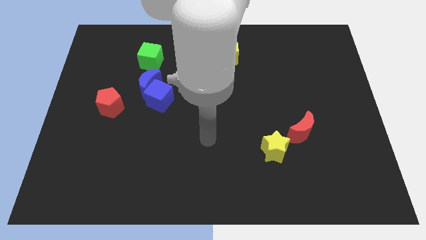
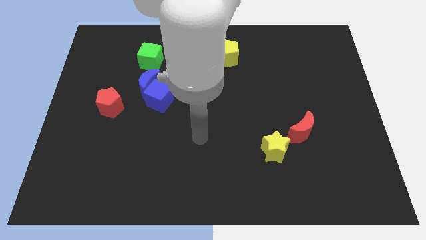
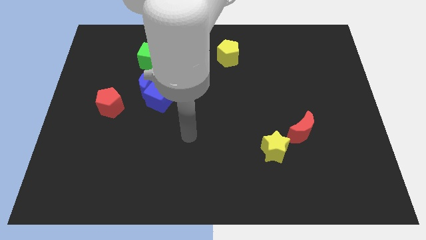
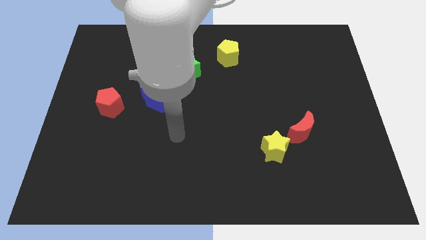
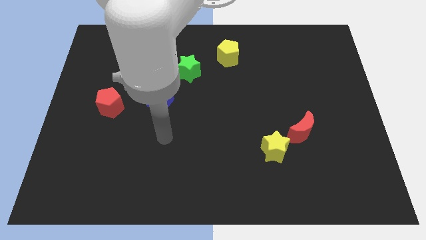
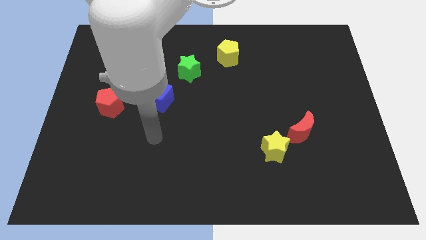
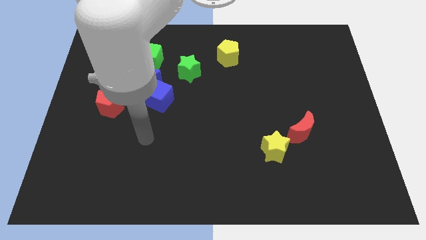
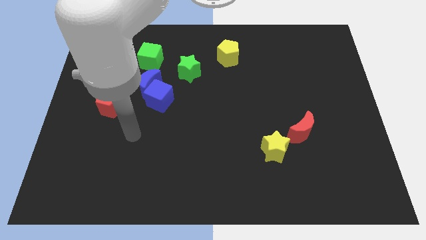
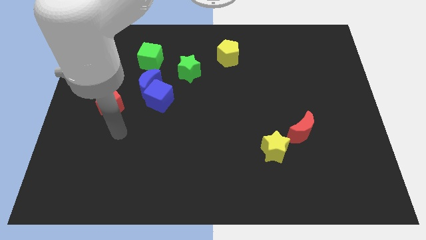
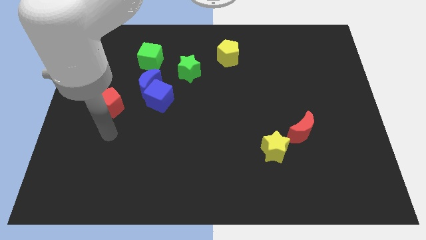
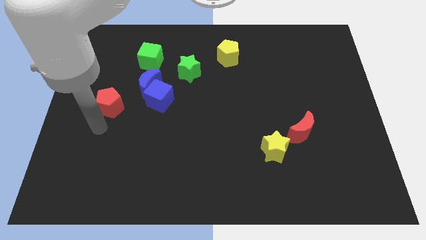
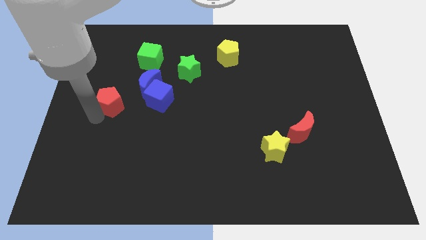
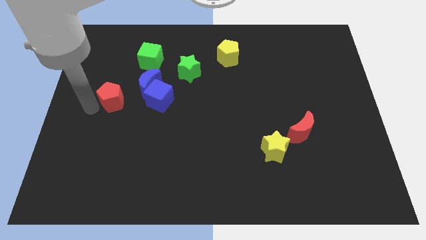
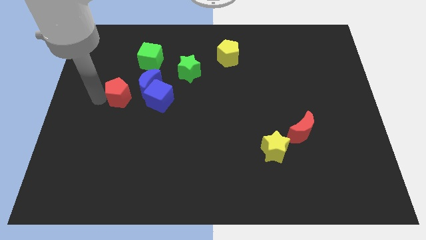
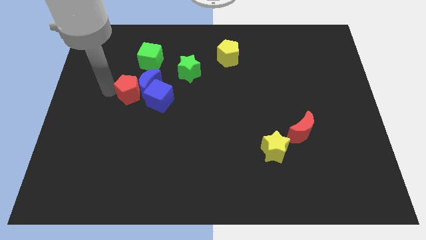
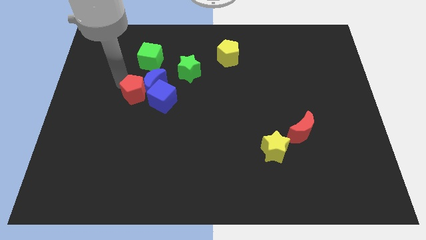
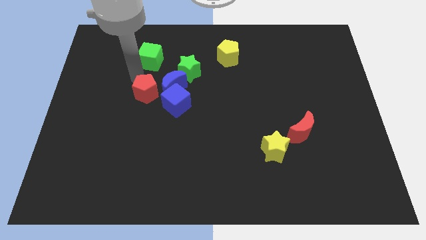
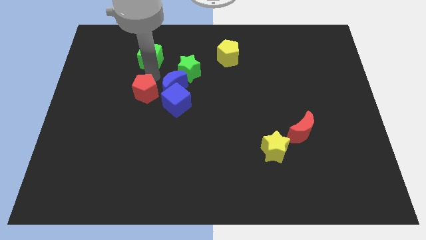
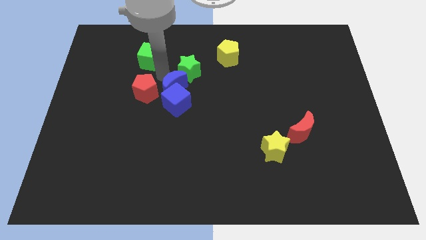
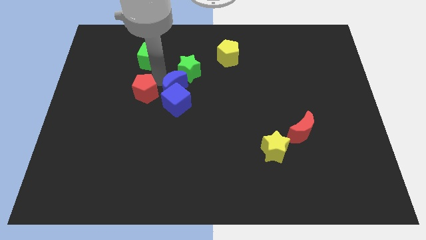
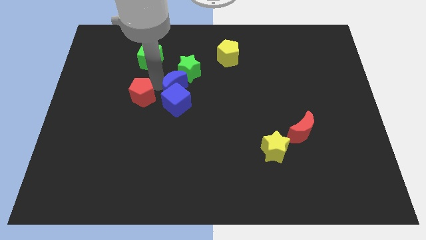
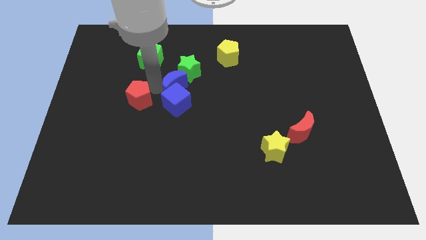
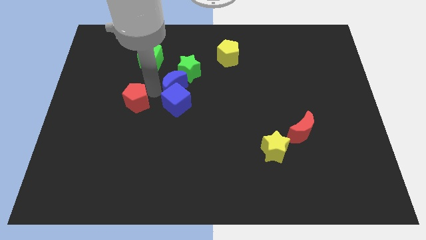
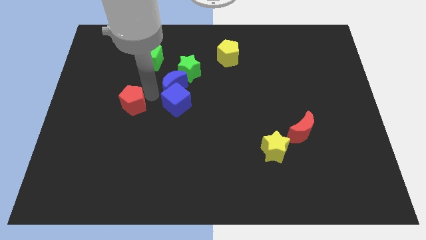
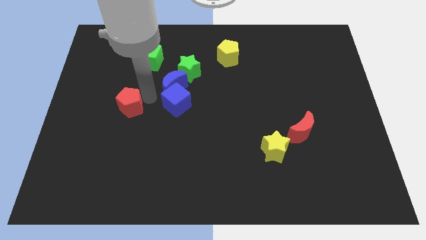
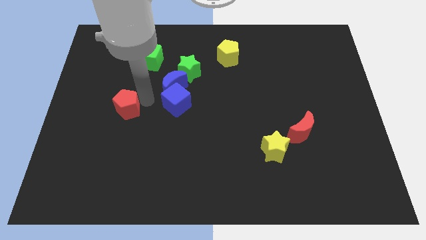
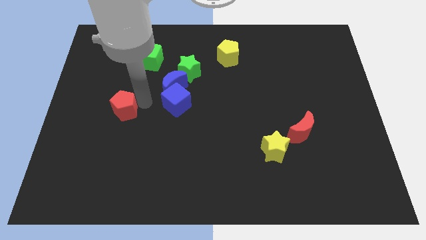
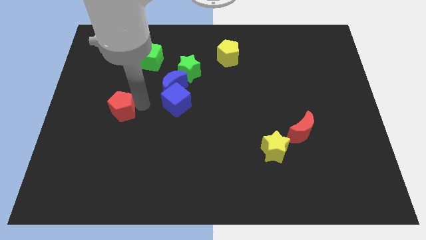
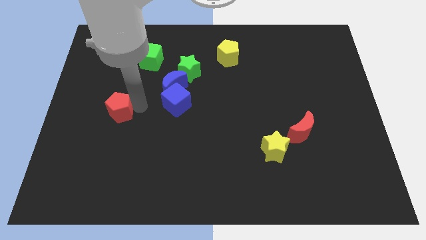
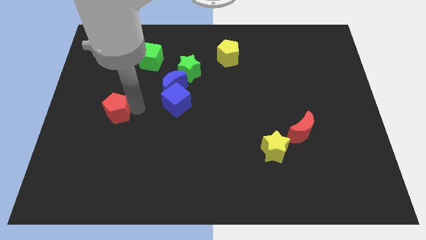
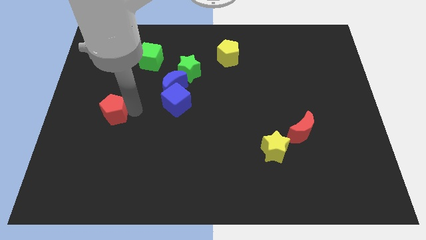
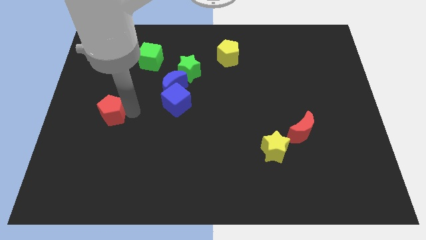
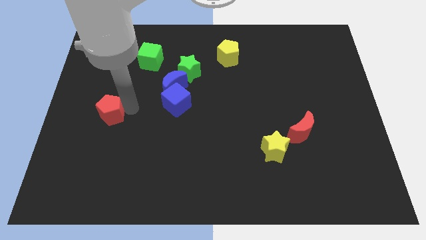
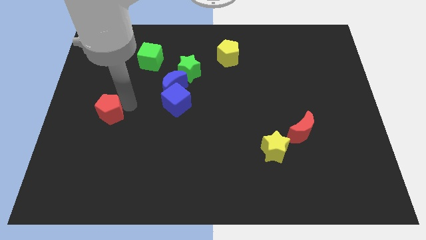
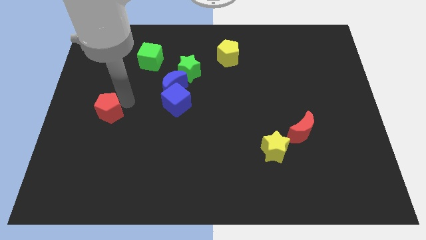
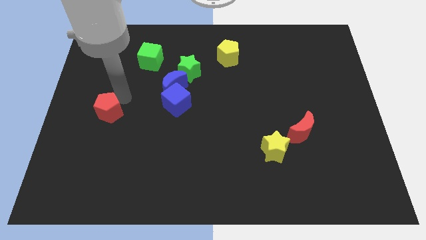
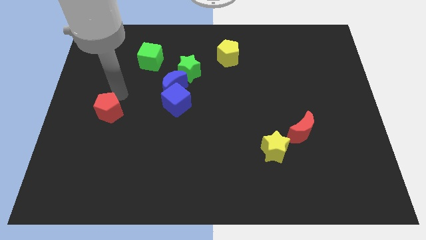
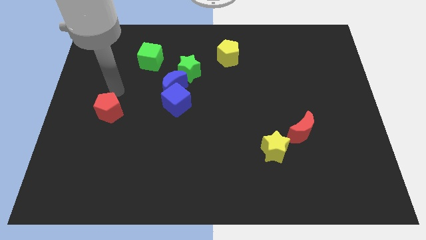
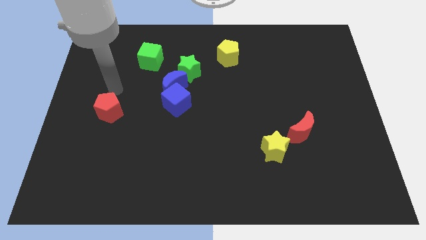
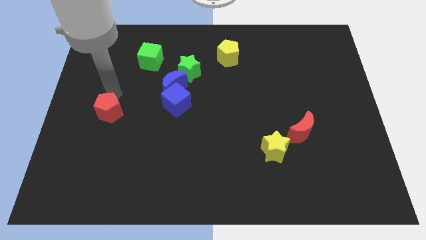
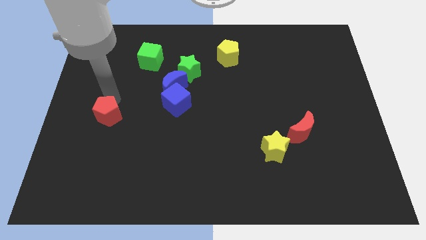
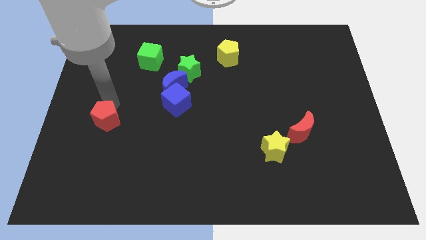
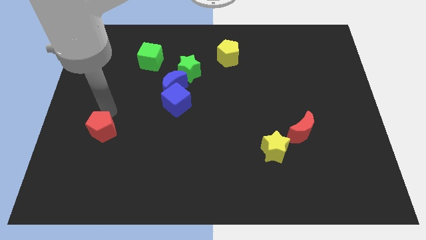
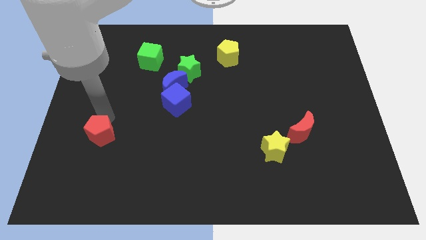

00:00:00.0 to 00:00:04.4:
move the red pentagon slightly down

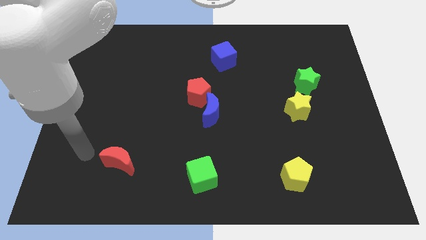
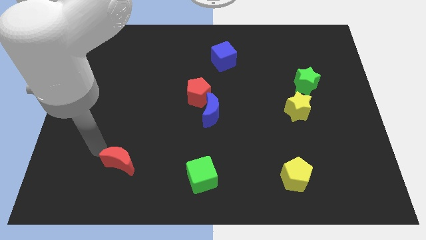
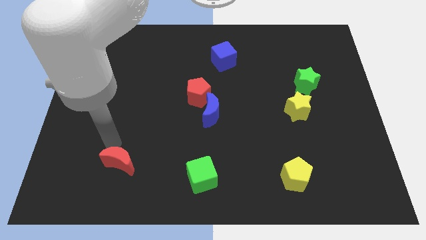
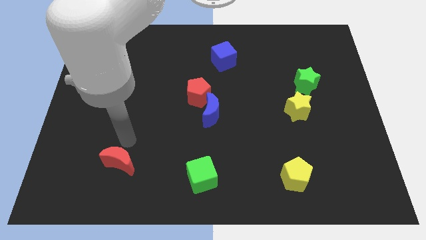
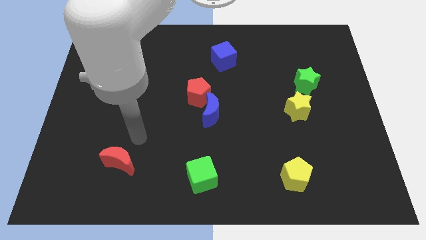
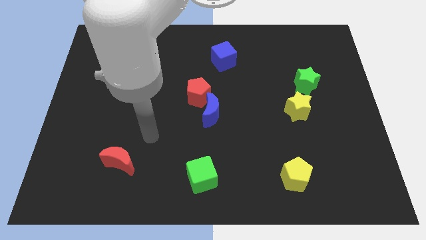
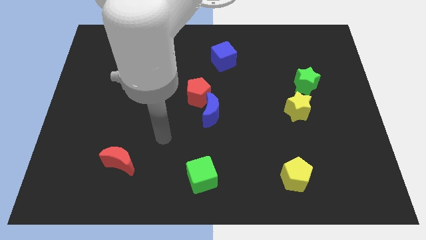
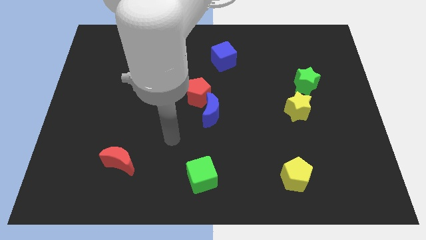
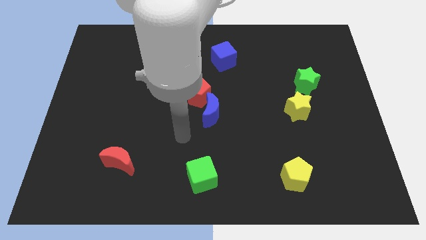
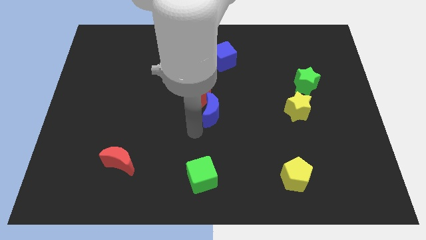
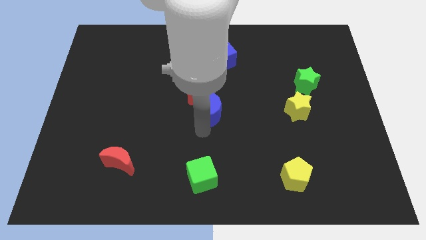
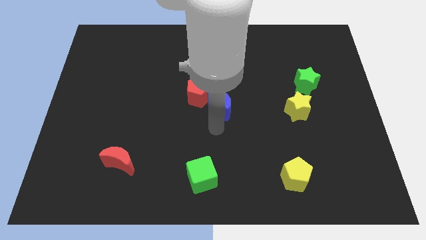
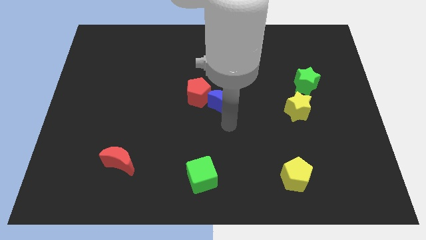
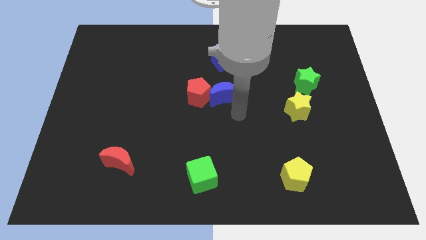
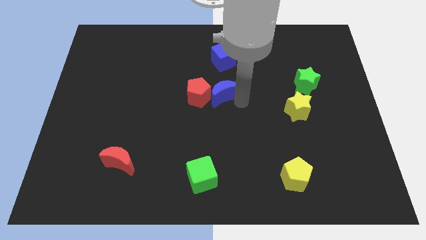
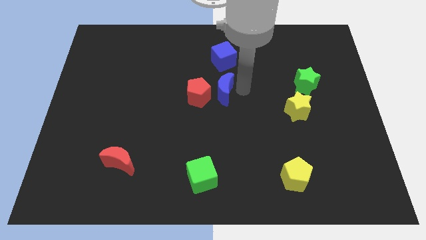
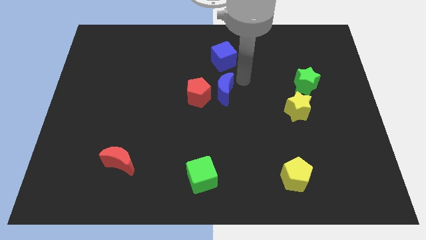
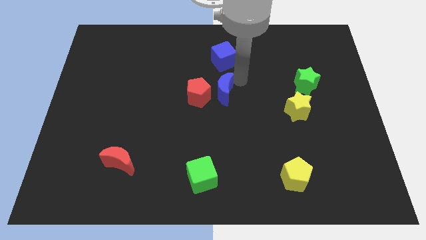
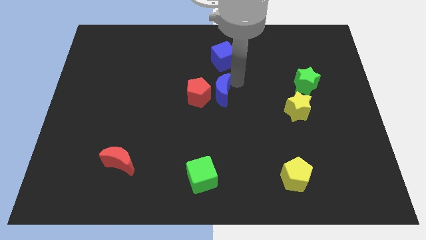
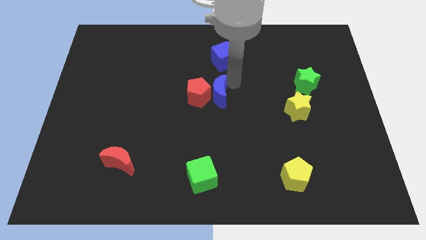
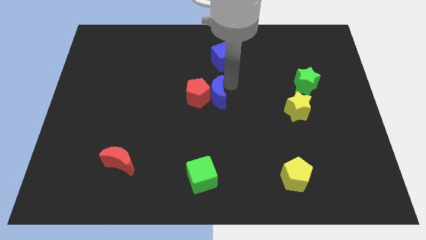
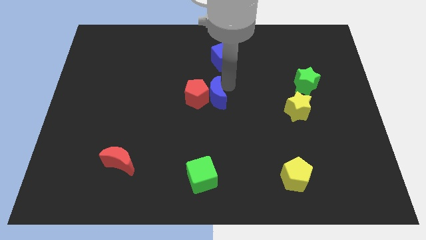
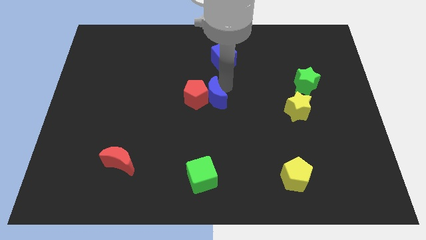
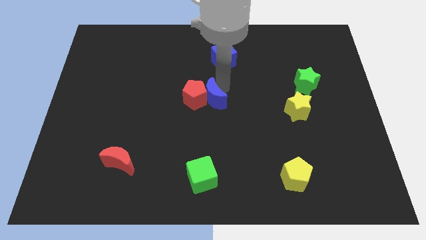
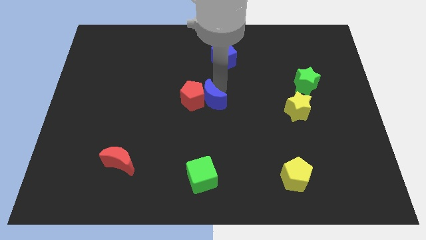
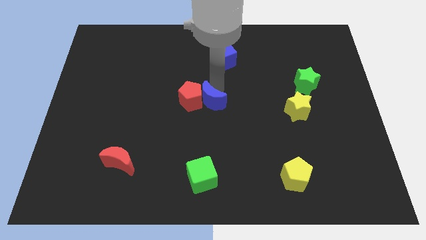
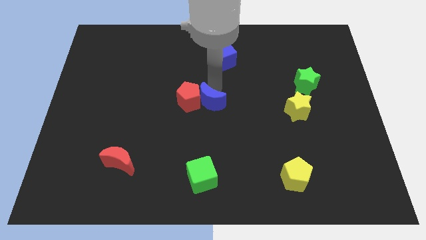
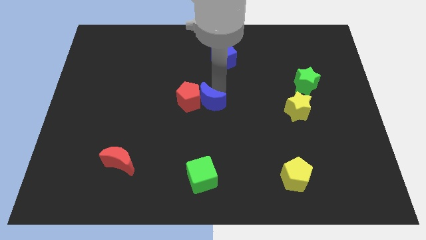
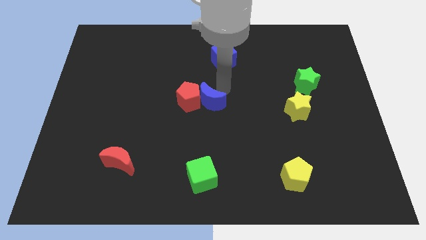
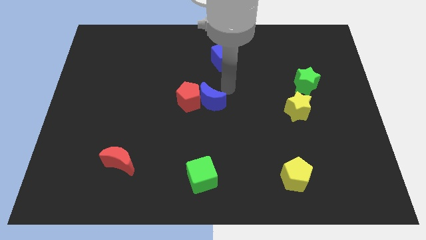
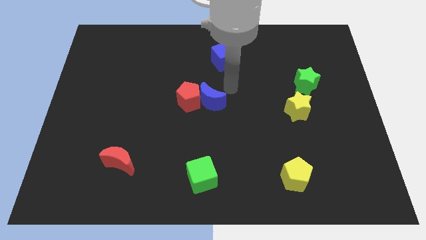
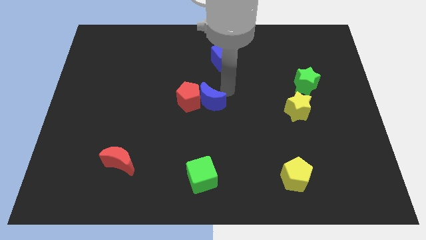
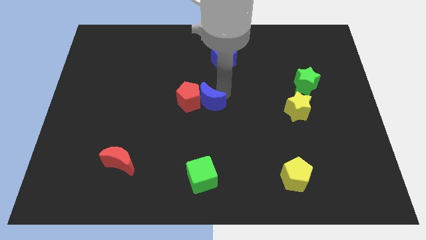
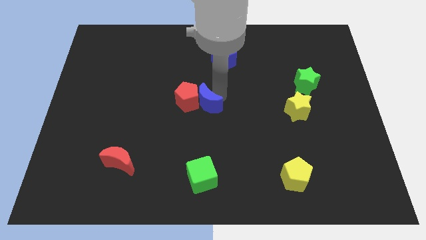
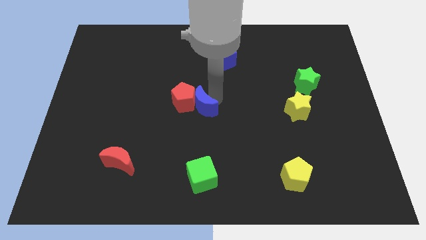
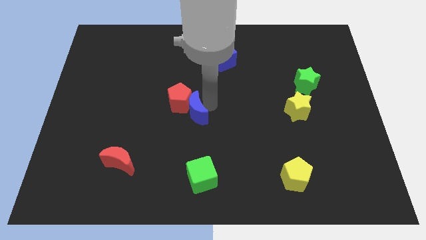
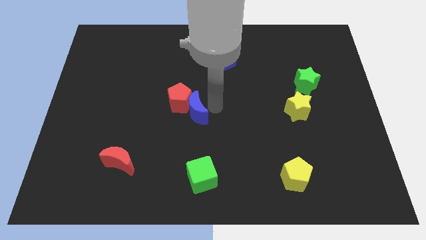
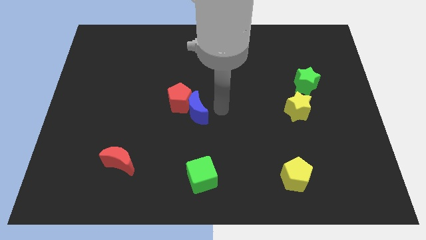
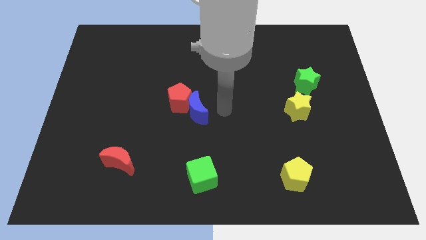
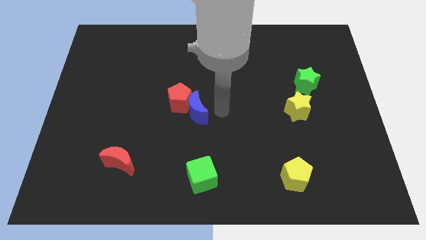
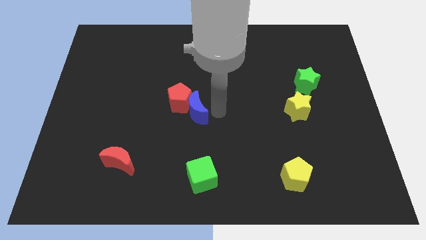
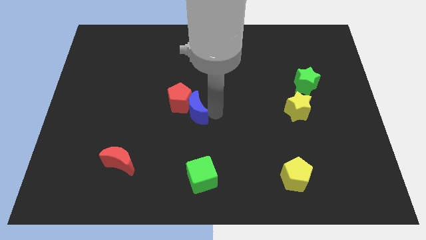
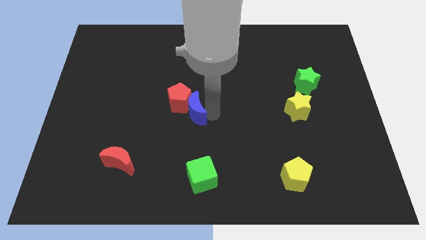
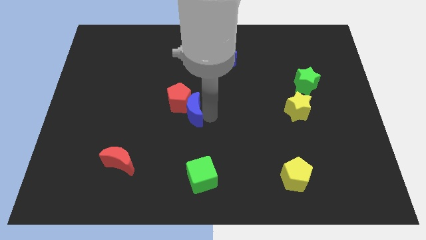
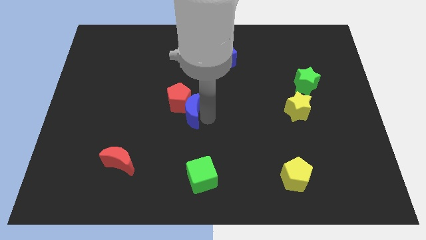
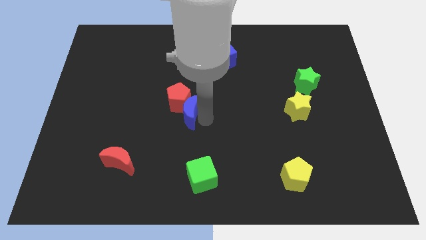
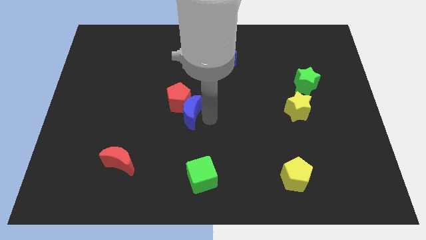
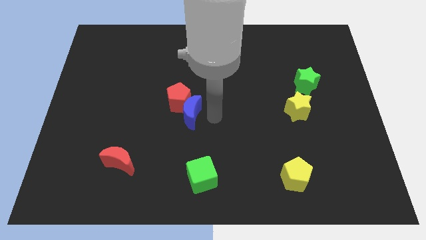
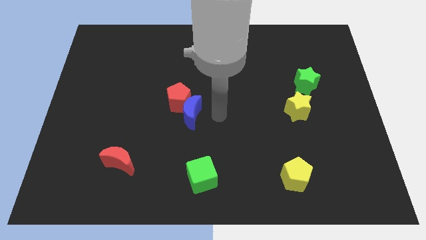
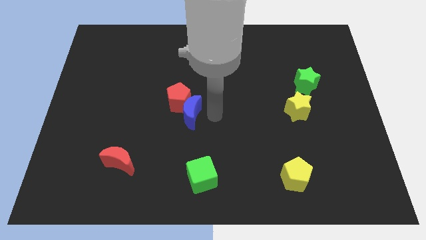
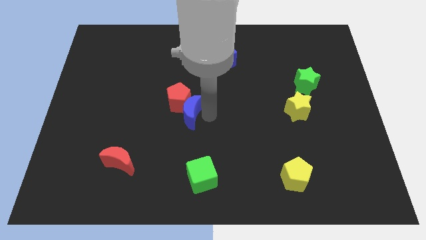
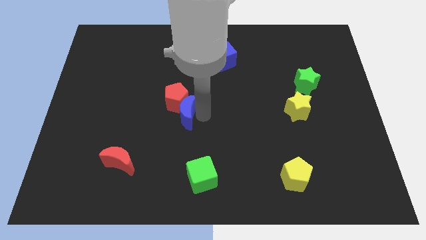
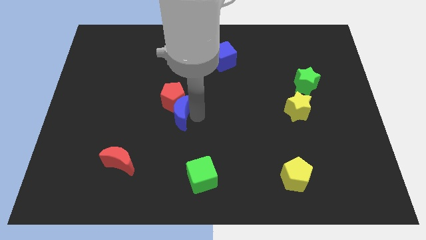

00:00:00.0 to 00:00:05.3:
push the blue moon to the left somewhat
